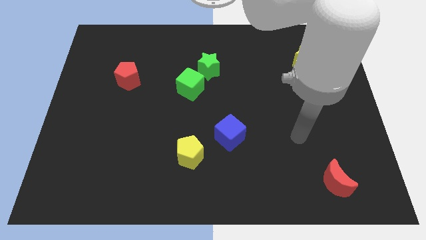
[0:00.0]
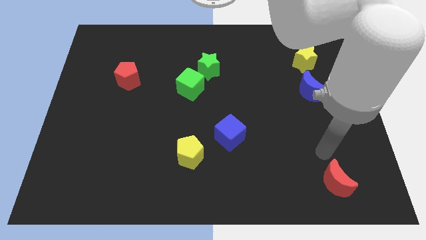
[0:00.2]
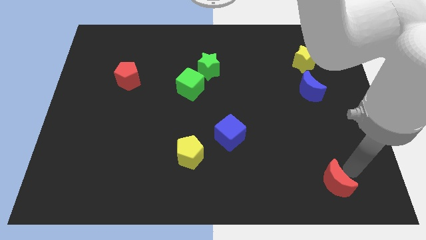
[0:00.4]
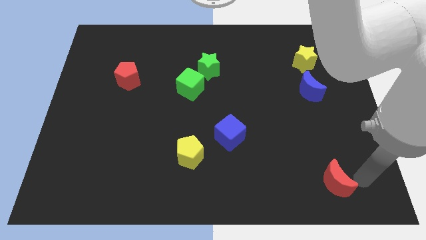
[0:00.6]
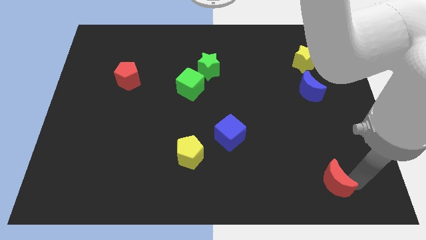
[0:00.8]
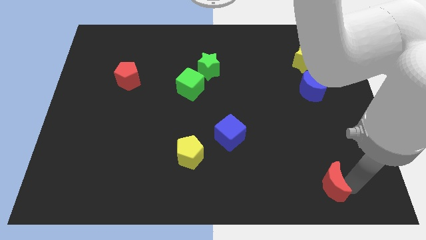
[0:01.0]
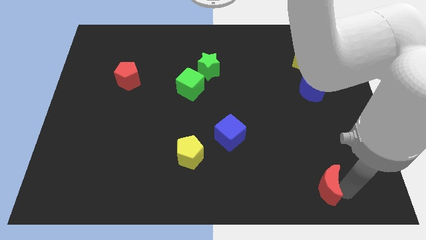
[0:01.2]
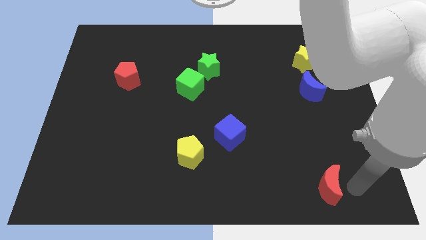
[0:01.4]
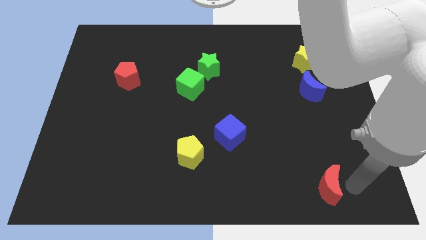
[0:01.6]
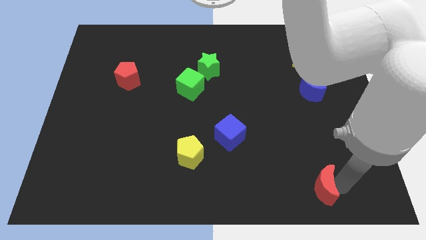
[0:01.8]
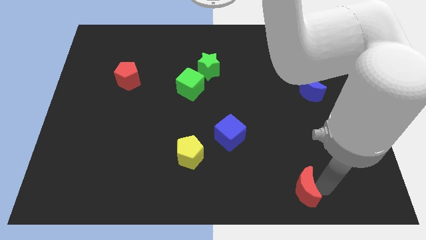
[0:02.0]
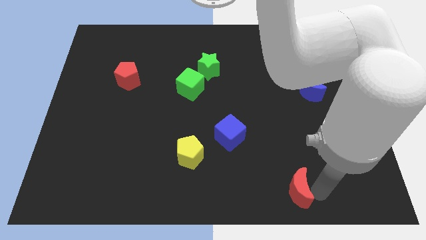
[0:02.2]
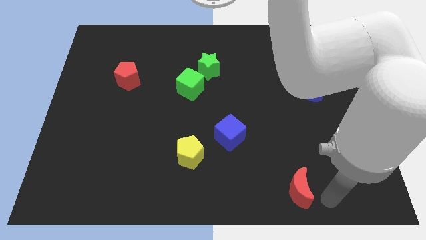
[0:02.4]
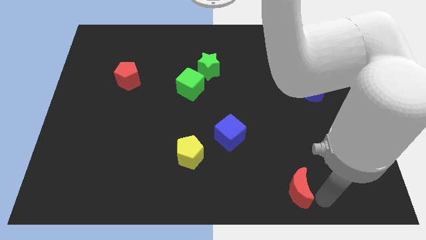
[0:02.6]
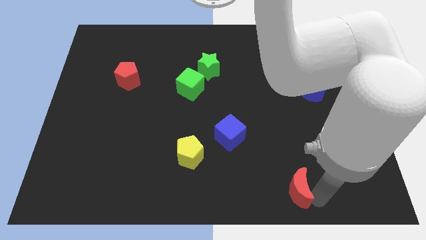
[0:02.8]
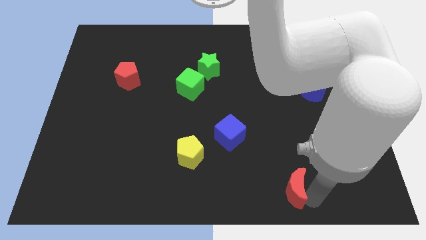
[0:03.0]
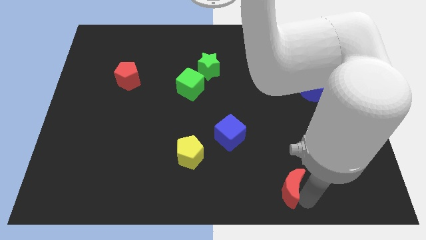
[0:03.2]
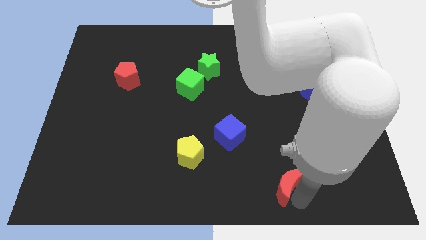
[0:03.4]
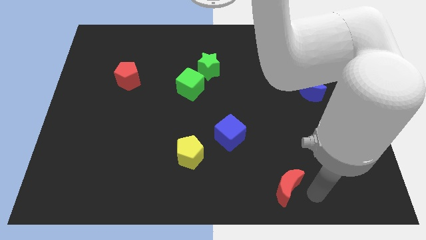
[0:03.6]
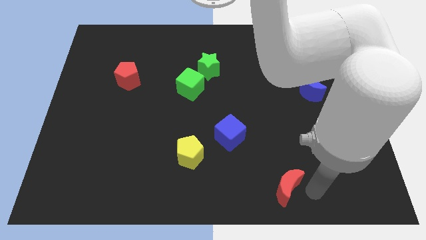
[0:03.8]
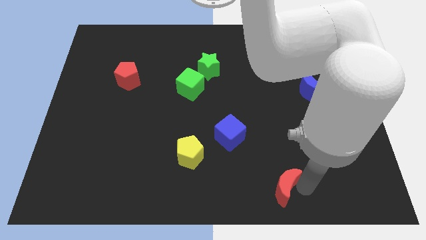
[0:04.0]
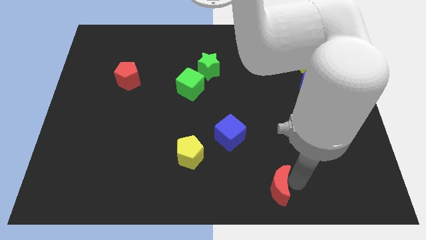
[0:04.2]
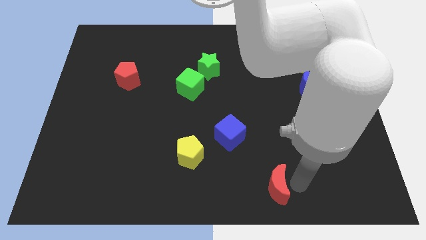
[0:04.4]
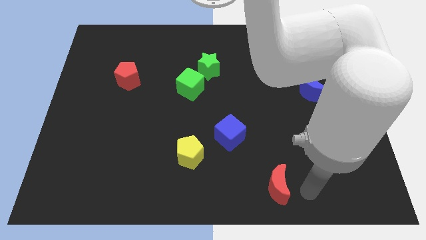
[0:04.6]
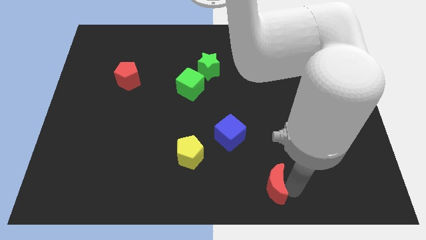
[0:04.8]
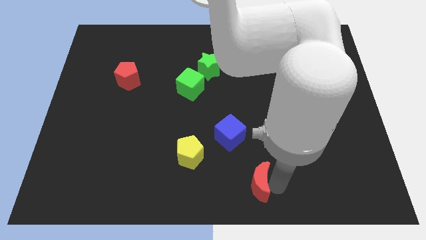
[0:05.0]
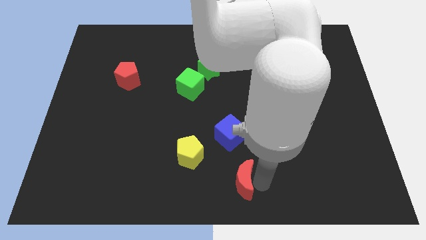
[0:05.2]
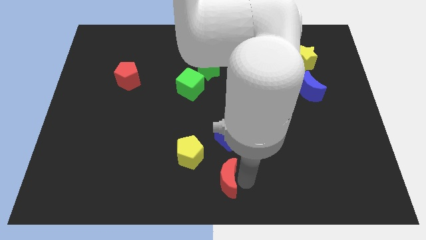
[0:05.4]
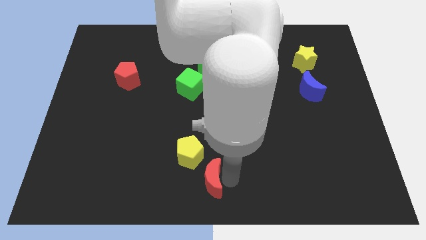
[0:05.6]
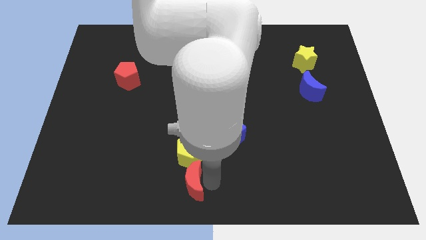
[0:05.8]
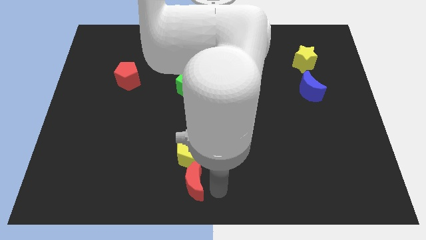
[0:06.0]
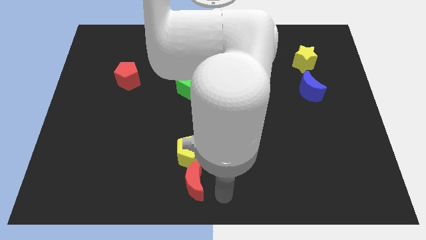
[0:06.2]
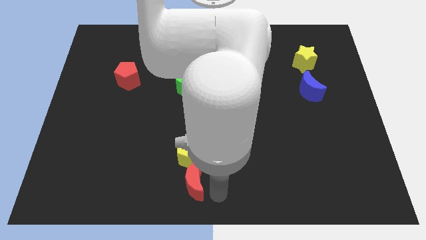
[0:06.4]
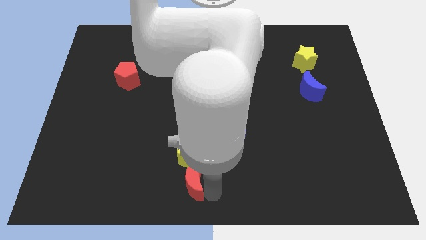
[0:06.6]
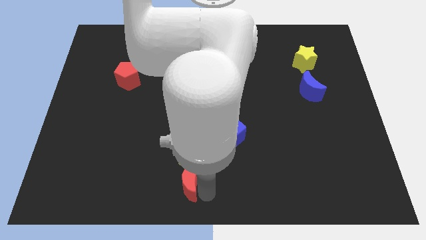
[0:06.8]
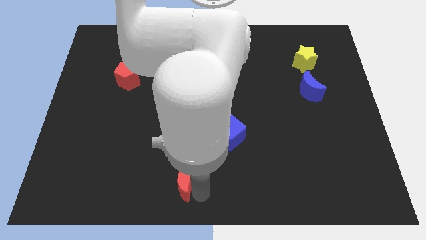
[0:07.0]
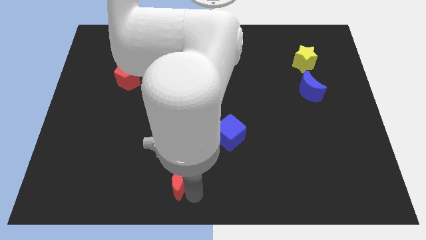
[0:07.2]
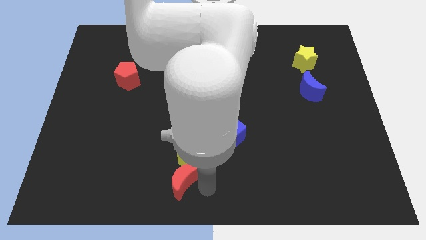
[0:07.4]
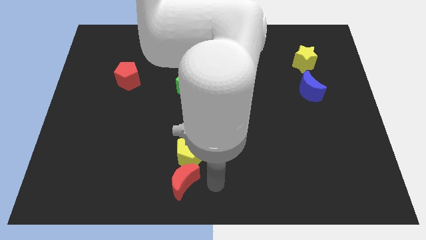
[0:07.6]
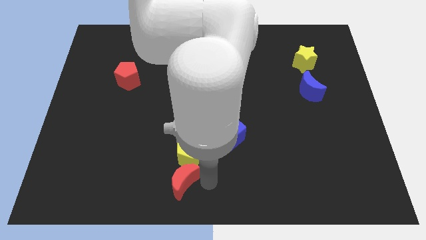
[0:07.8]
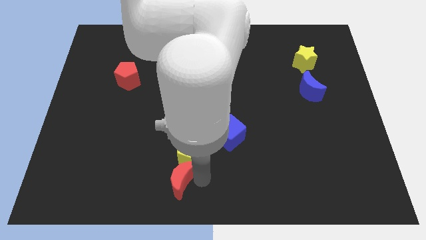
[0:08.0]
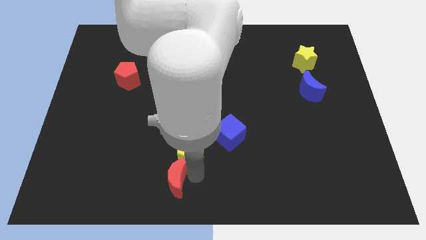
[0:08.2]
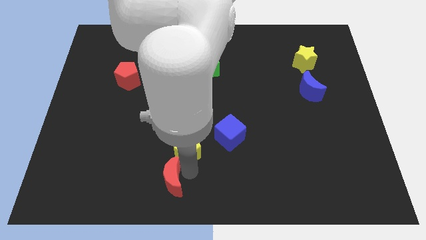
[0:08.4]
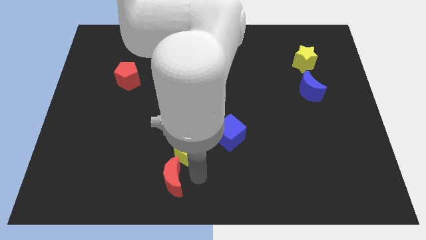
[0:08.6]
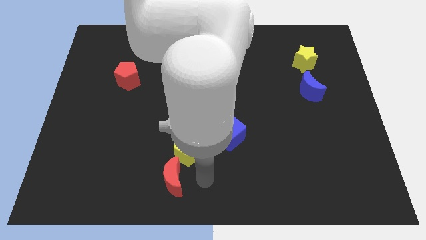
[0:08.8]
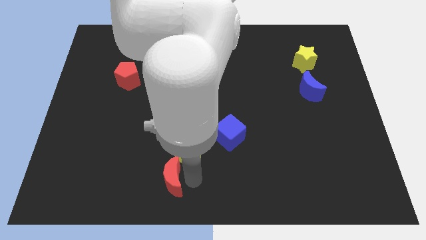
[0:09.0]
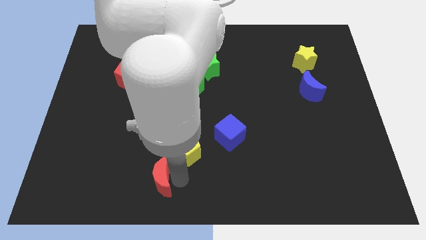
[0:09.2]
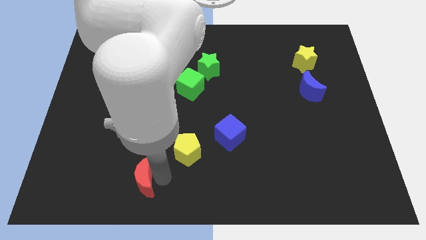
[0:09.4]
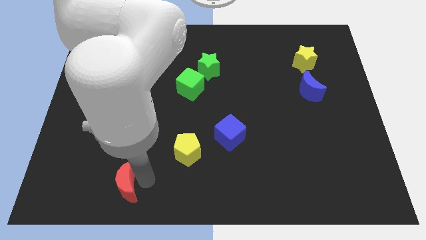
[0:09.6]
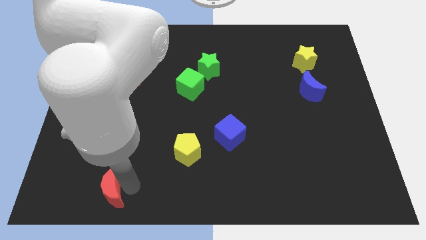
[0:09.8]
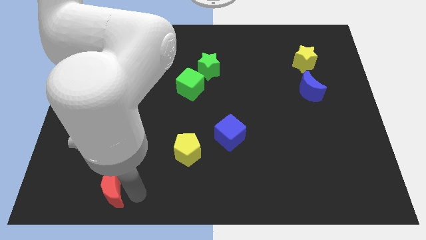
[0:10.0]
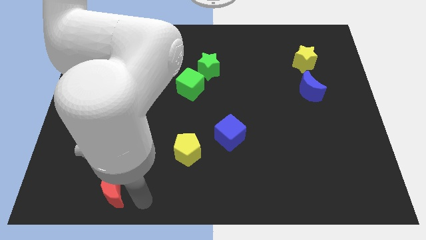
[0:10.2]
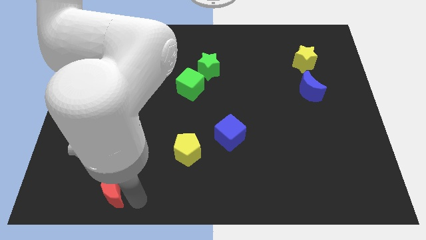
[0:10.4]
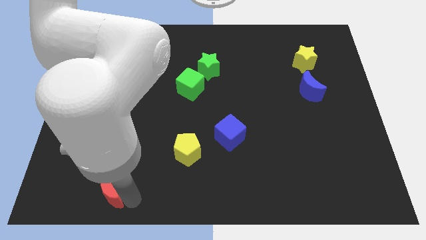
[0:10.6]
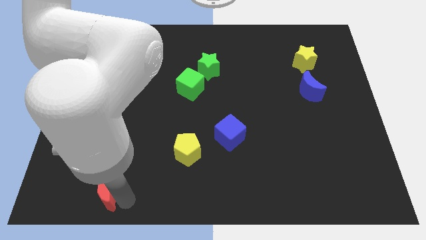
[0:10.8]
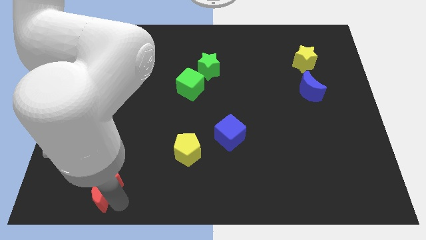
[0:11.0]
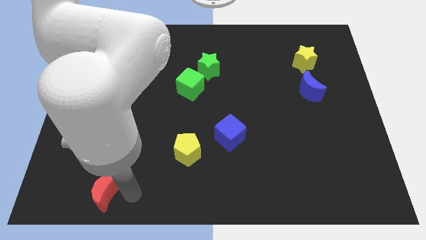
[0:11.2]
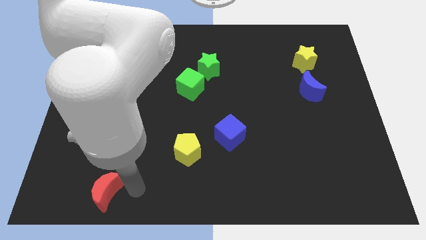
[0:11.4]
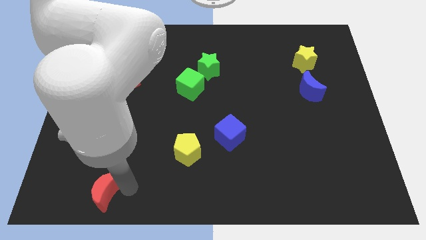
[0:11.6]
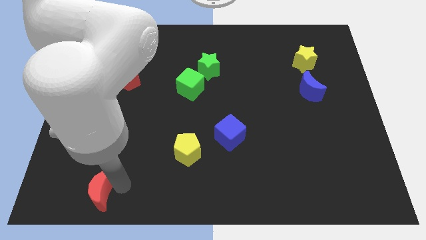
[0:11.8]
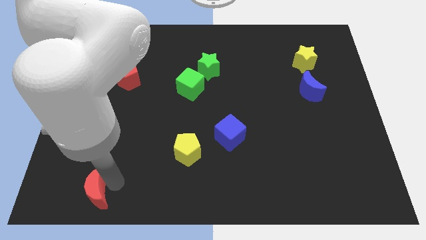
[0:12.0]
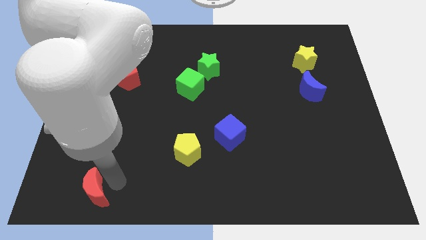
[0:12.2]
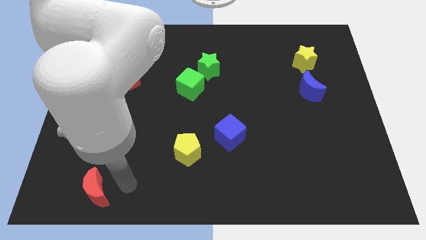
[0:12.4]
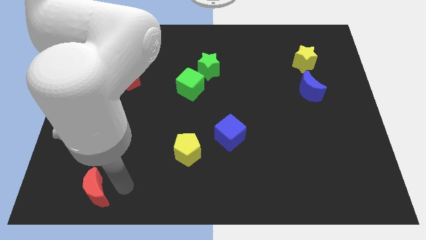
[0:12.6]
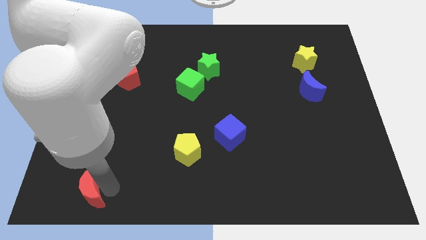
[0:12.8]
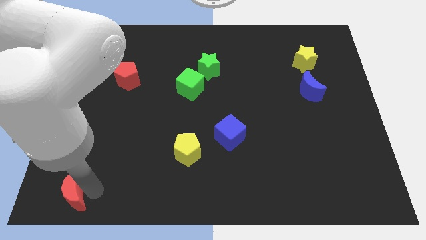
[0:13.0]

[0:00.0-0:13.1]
put the red moon to the bottom left of the board
